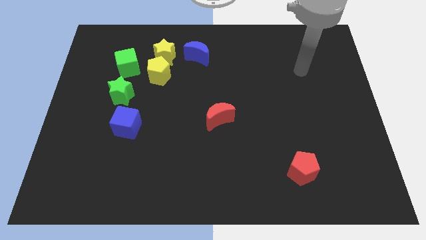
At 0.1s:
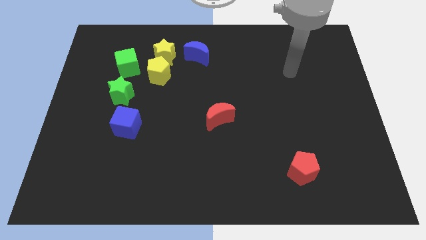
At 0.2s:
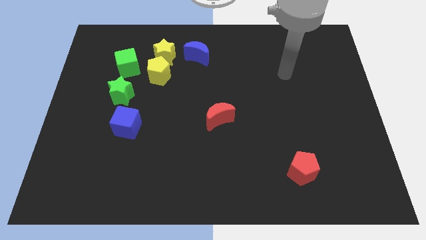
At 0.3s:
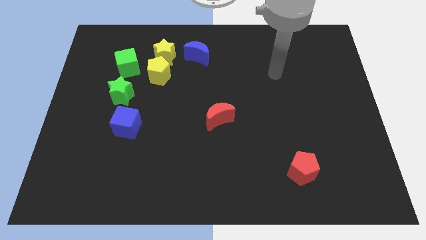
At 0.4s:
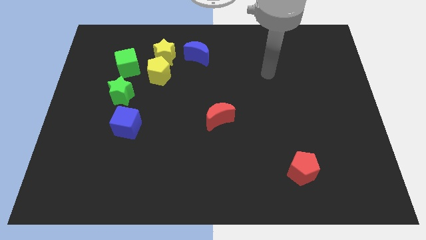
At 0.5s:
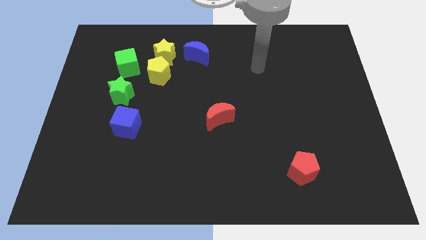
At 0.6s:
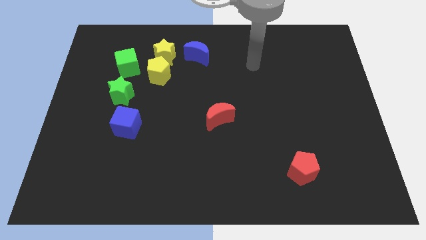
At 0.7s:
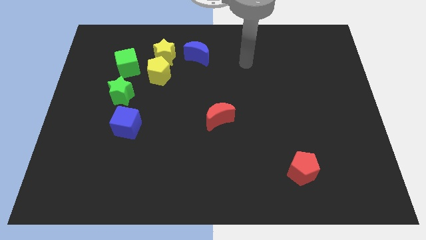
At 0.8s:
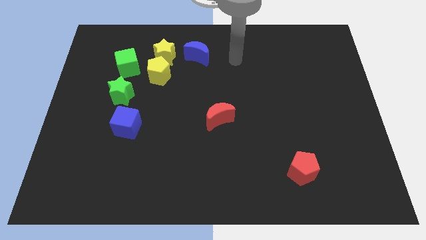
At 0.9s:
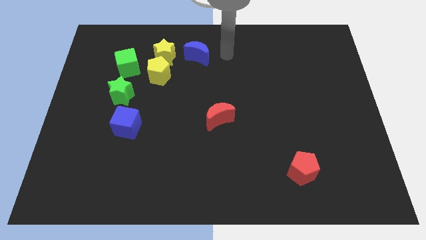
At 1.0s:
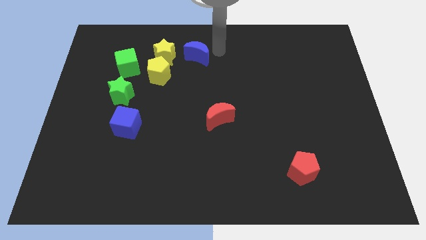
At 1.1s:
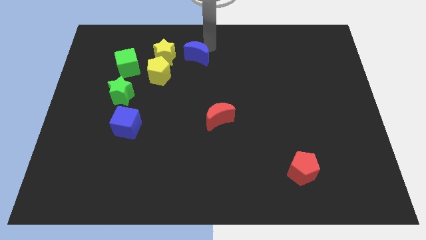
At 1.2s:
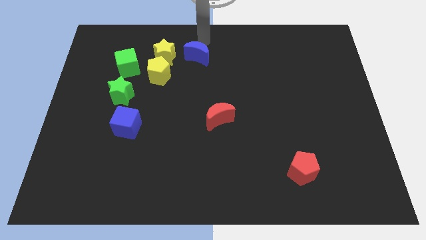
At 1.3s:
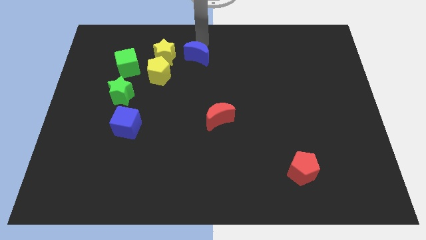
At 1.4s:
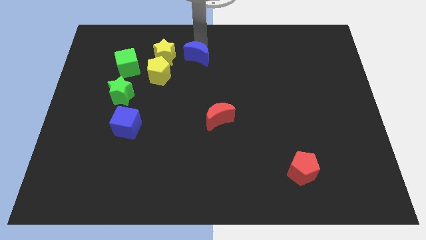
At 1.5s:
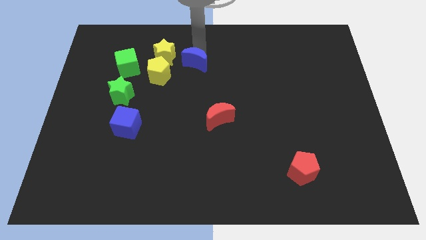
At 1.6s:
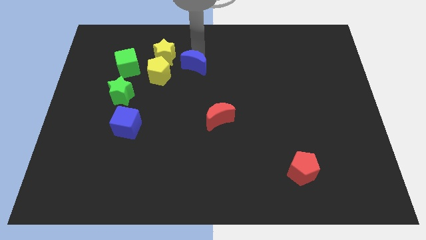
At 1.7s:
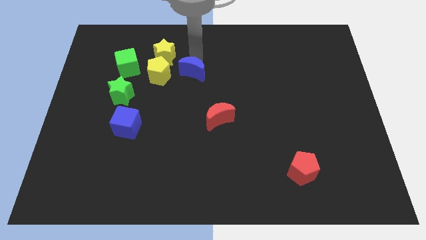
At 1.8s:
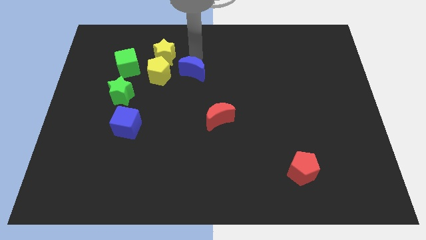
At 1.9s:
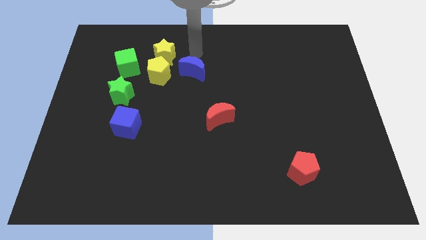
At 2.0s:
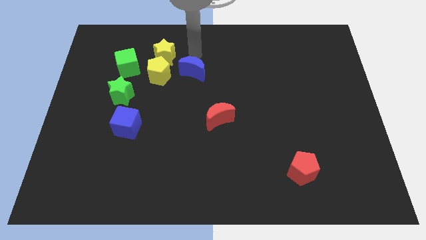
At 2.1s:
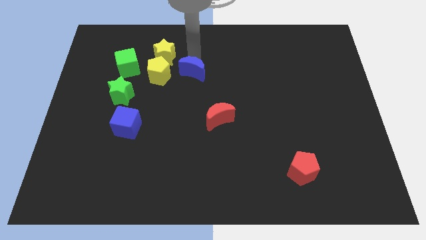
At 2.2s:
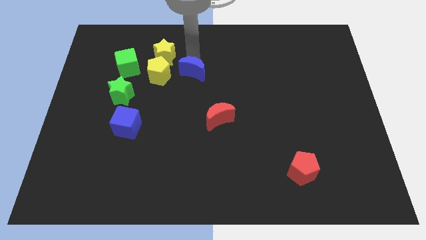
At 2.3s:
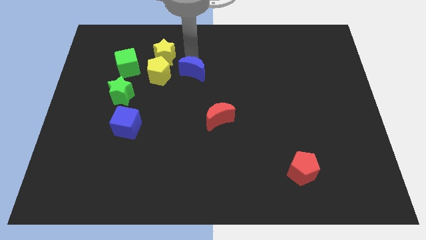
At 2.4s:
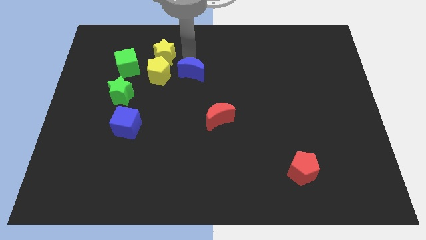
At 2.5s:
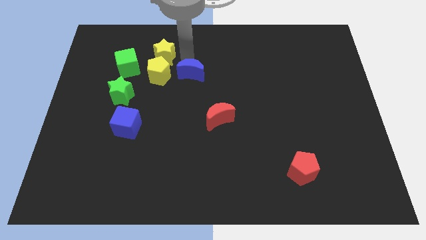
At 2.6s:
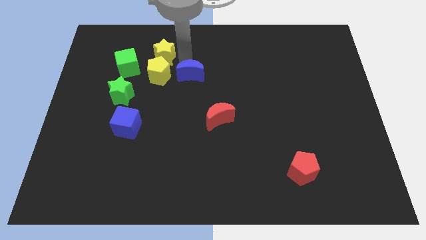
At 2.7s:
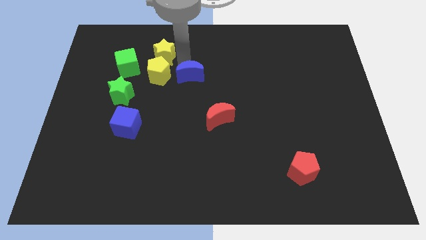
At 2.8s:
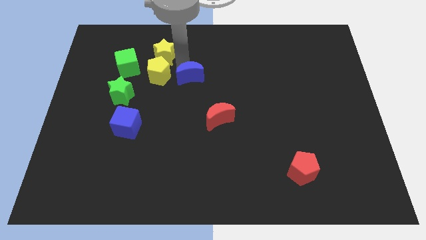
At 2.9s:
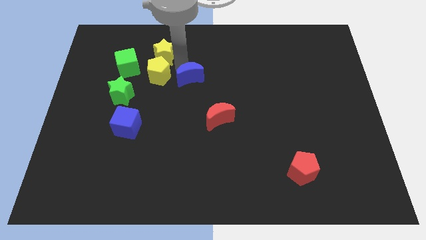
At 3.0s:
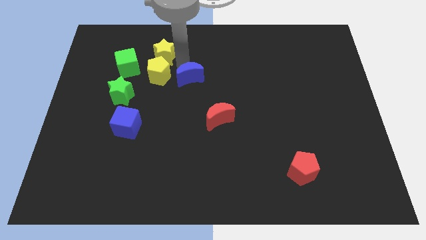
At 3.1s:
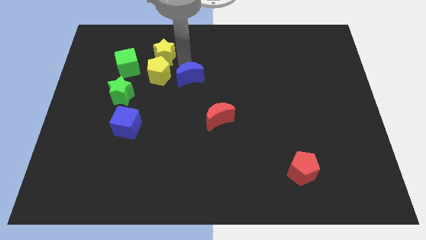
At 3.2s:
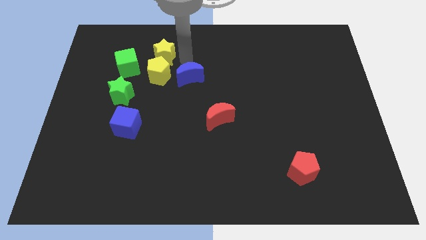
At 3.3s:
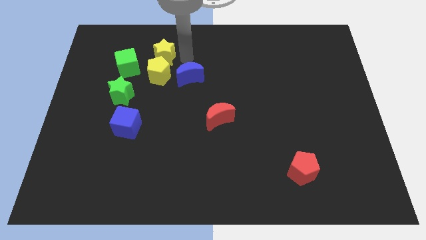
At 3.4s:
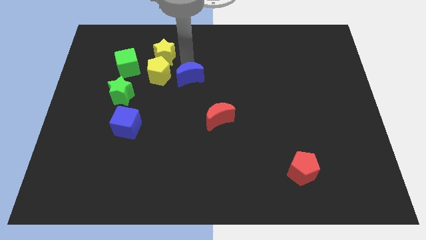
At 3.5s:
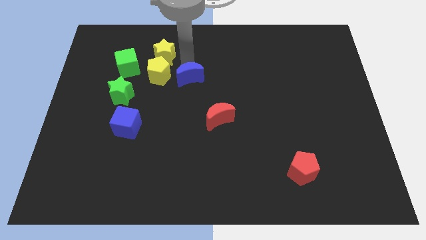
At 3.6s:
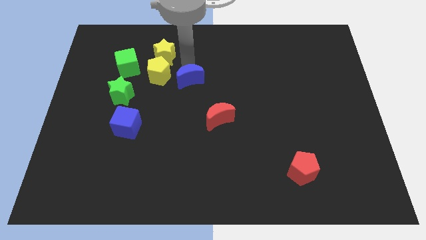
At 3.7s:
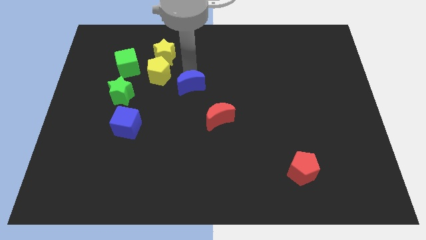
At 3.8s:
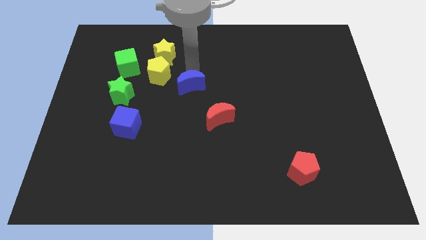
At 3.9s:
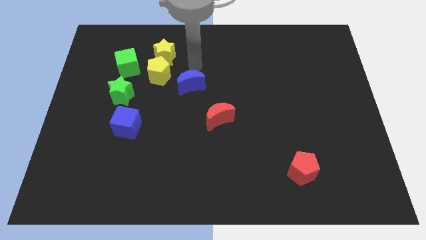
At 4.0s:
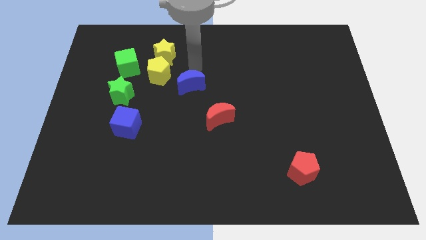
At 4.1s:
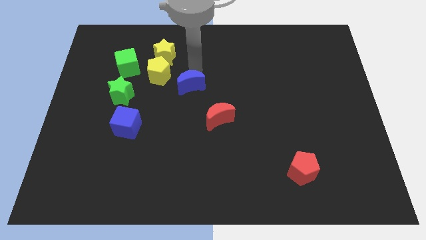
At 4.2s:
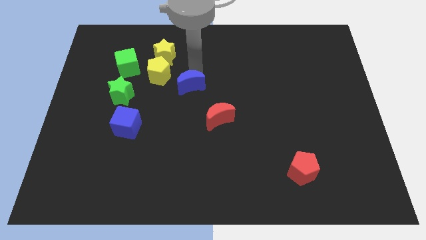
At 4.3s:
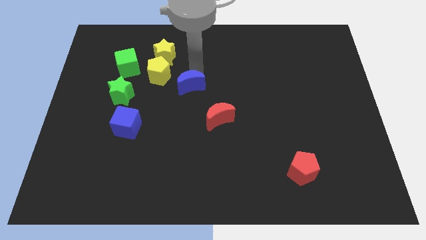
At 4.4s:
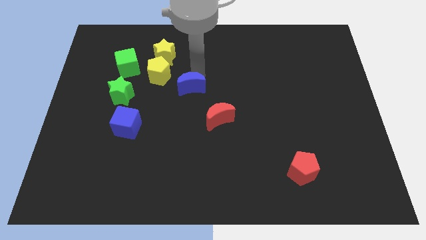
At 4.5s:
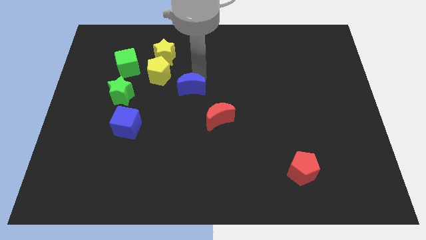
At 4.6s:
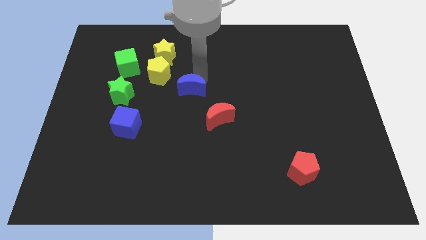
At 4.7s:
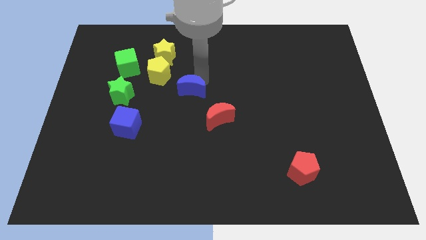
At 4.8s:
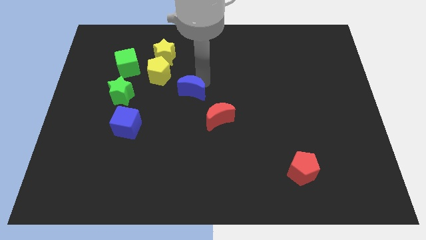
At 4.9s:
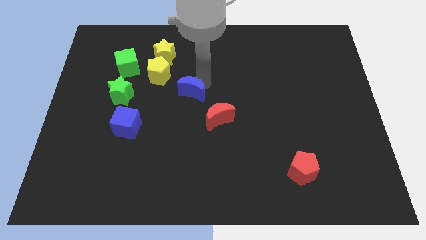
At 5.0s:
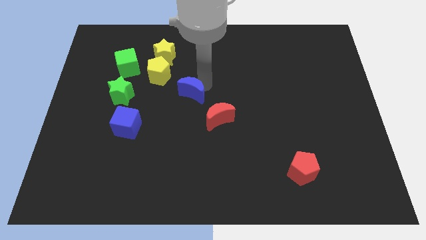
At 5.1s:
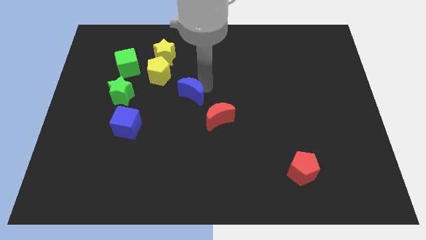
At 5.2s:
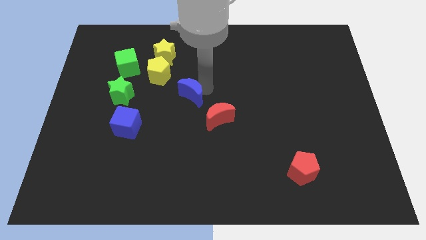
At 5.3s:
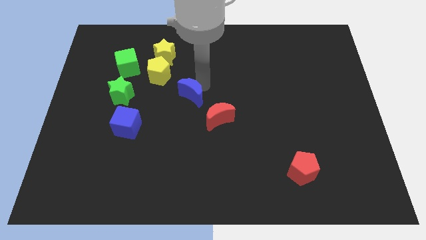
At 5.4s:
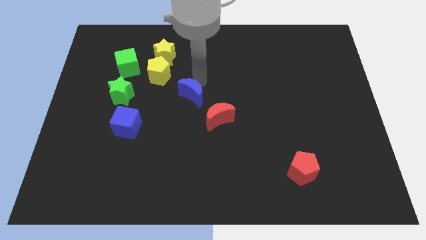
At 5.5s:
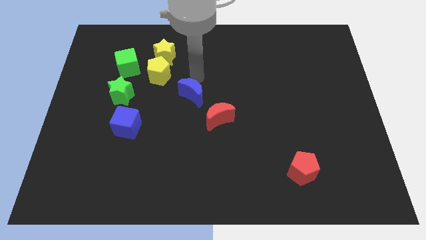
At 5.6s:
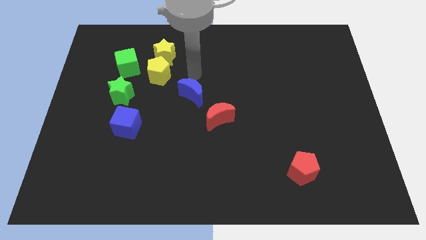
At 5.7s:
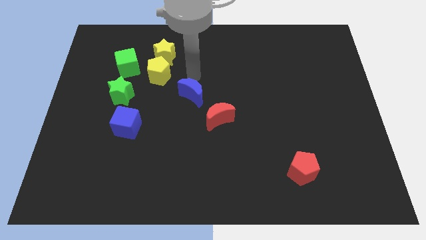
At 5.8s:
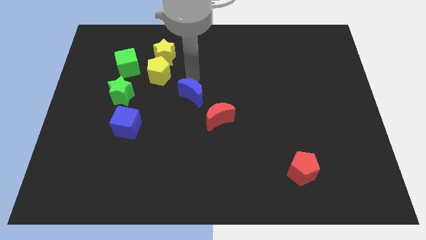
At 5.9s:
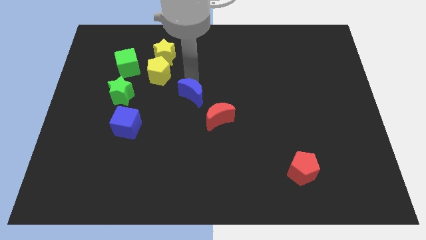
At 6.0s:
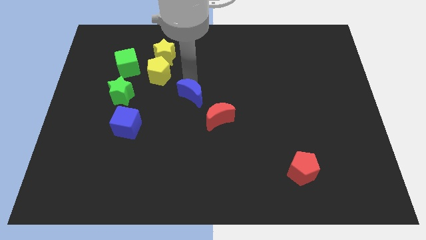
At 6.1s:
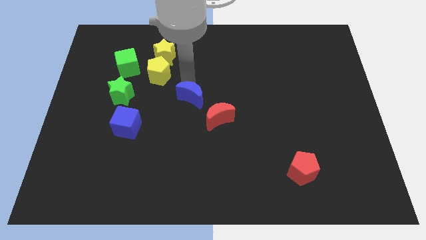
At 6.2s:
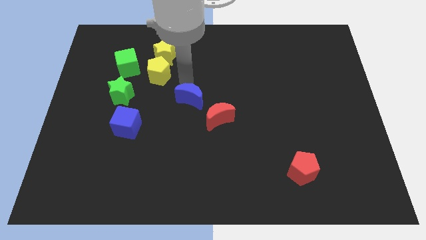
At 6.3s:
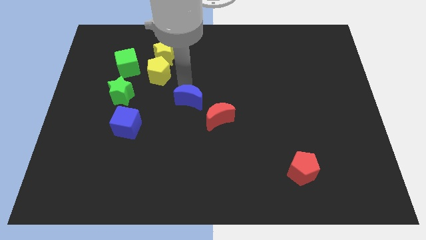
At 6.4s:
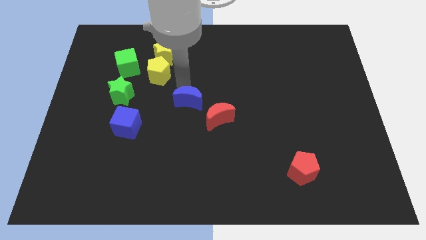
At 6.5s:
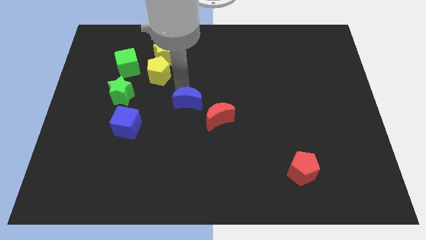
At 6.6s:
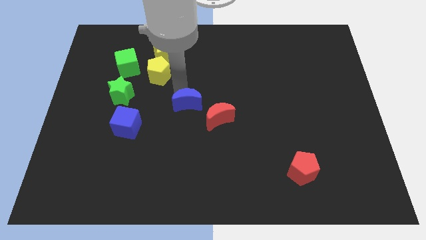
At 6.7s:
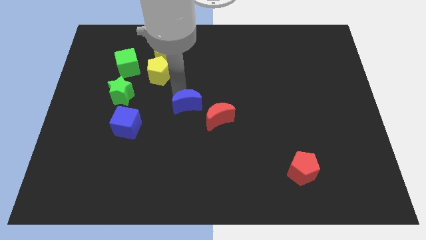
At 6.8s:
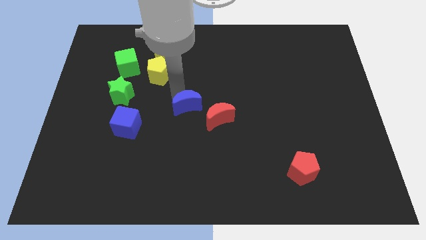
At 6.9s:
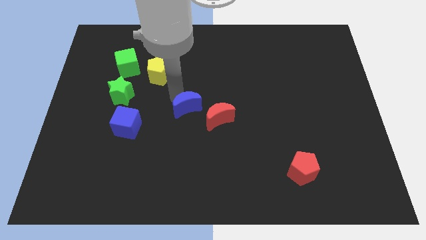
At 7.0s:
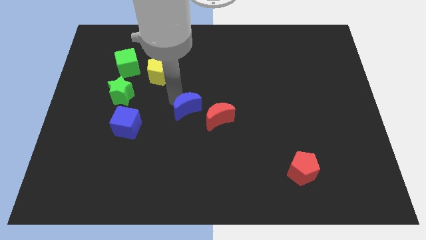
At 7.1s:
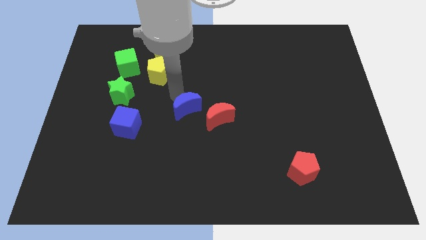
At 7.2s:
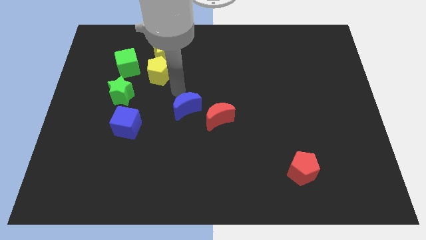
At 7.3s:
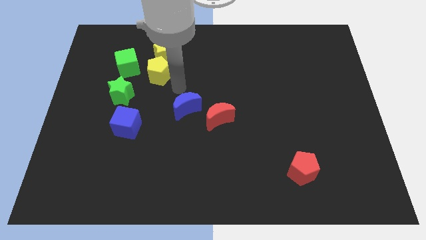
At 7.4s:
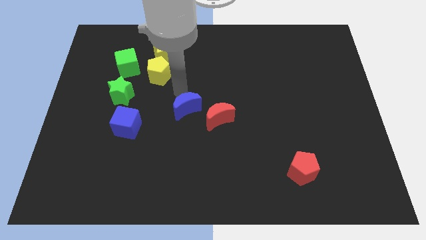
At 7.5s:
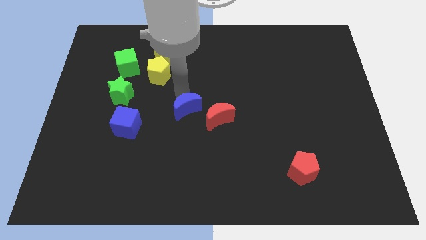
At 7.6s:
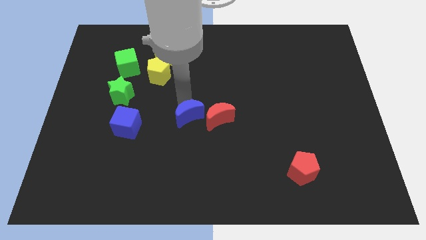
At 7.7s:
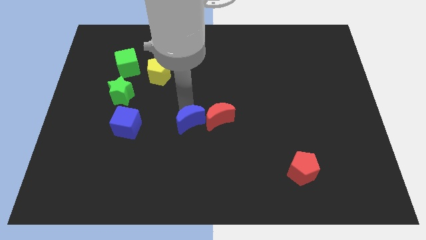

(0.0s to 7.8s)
push the blue moon down
